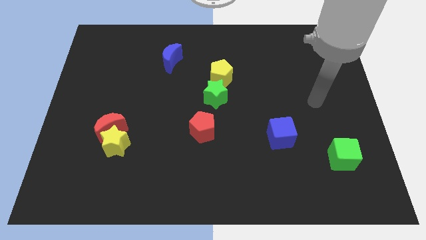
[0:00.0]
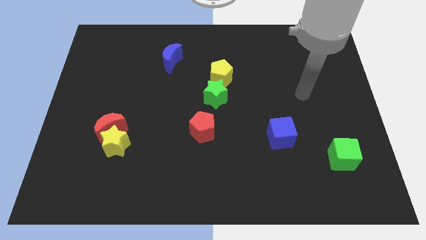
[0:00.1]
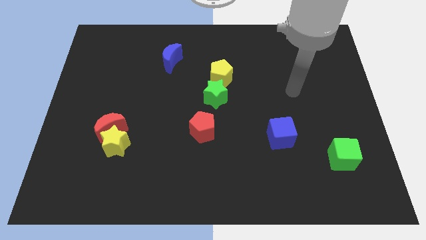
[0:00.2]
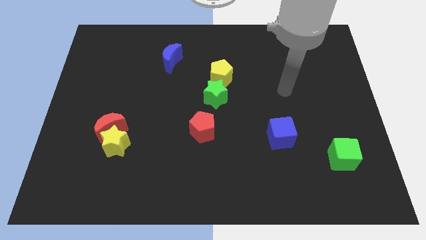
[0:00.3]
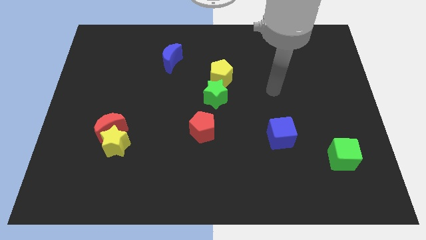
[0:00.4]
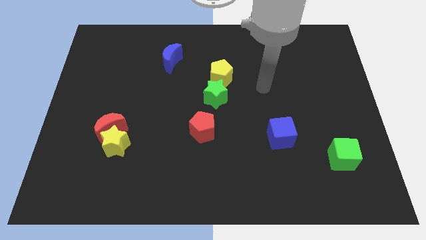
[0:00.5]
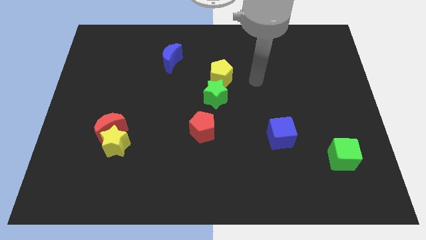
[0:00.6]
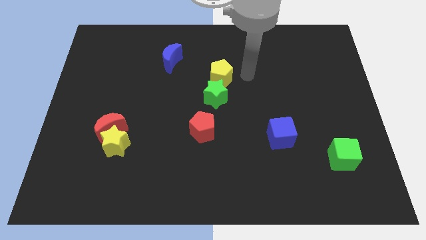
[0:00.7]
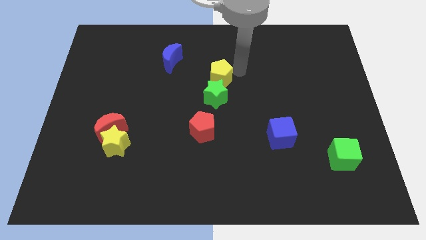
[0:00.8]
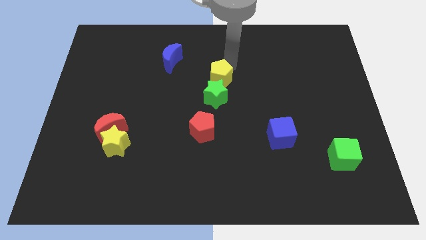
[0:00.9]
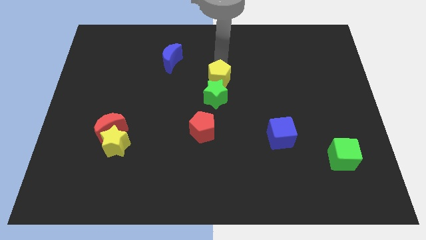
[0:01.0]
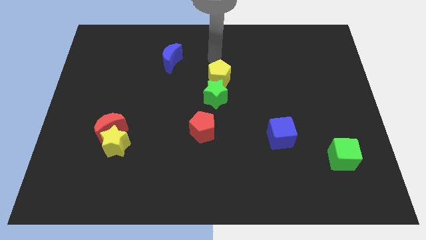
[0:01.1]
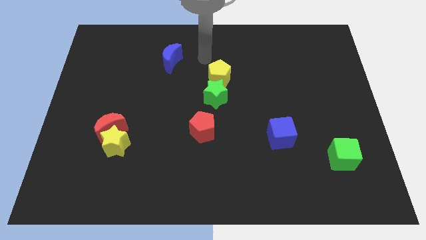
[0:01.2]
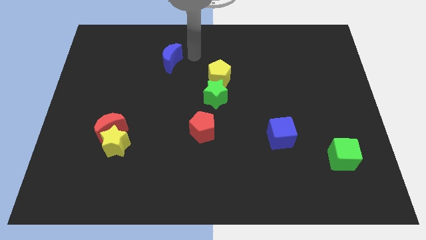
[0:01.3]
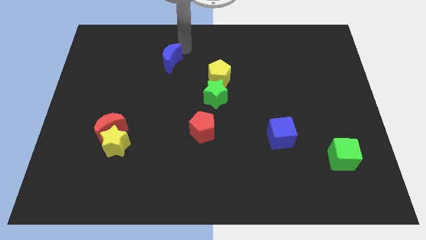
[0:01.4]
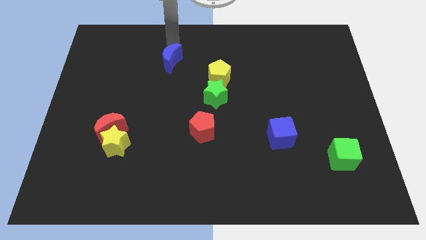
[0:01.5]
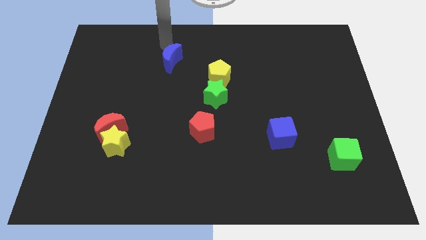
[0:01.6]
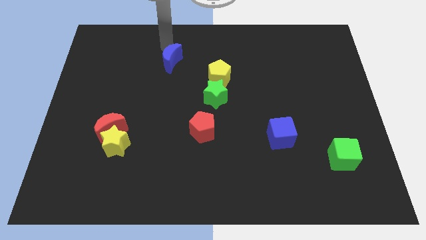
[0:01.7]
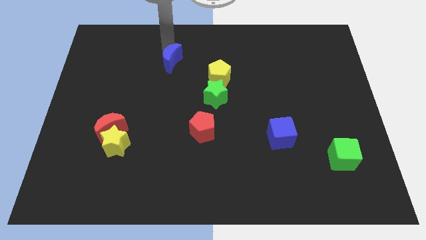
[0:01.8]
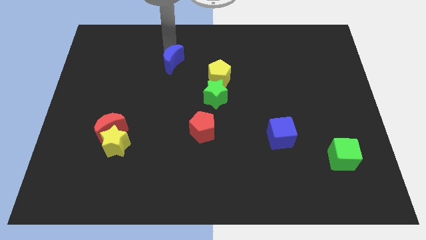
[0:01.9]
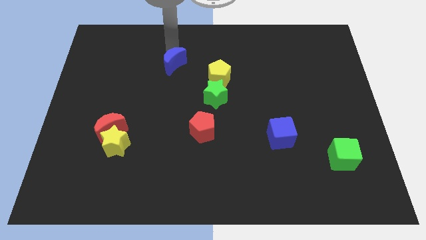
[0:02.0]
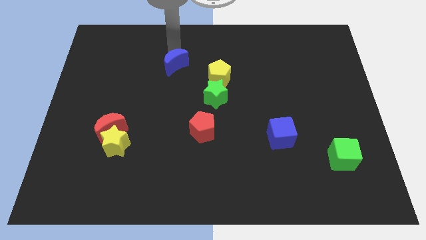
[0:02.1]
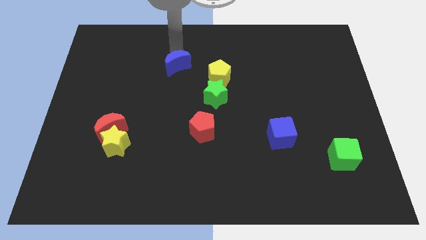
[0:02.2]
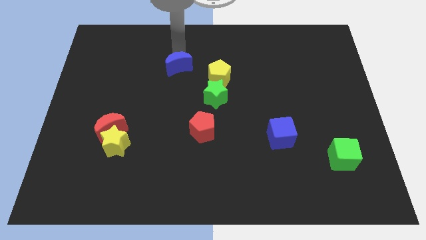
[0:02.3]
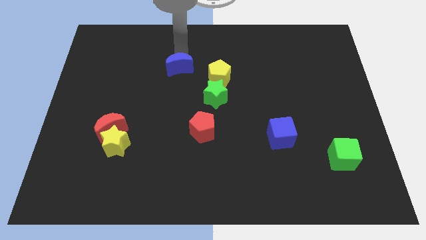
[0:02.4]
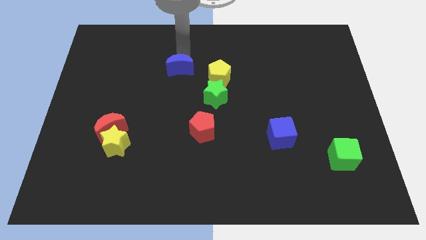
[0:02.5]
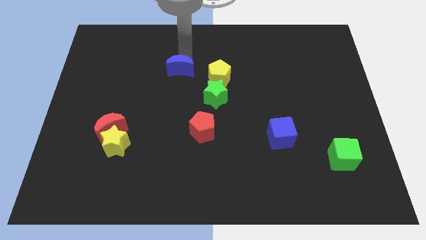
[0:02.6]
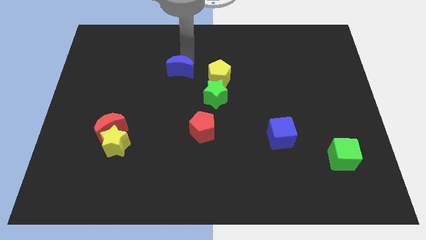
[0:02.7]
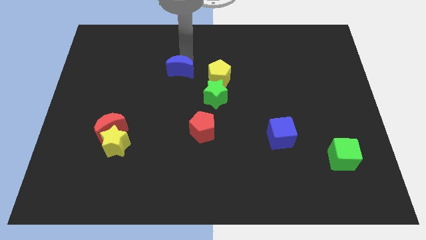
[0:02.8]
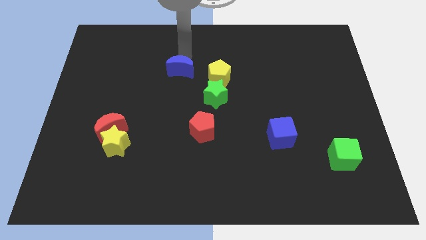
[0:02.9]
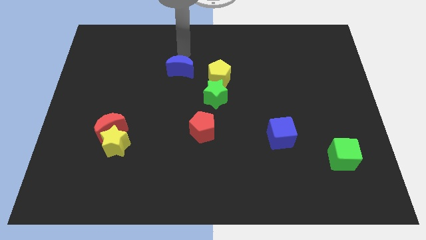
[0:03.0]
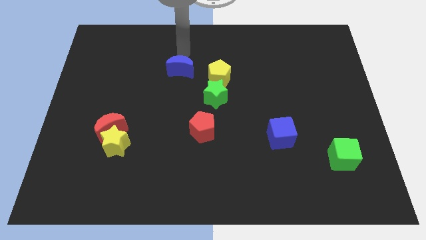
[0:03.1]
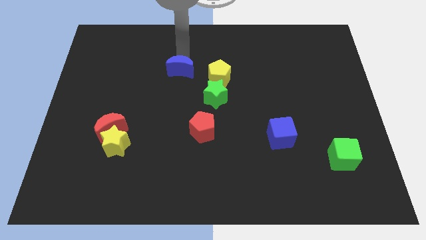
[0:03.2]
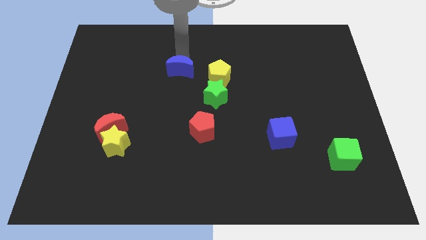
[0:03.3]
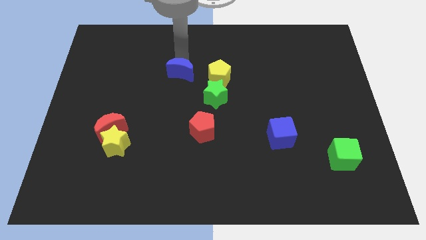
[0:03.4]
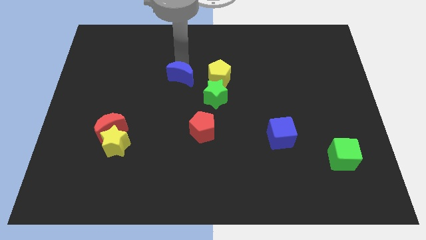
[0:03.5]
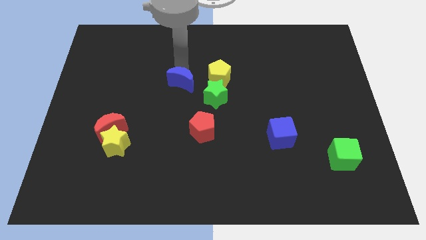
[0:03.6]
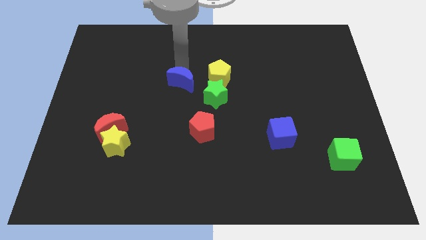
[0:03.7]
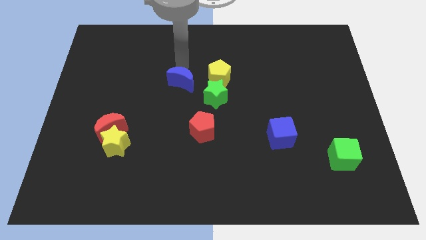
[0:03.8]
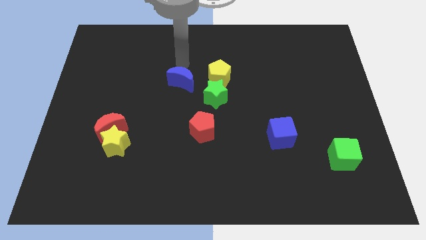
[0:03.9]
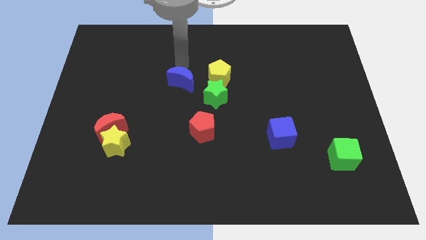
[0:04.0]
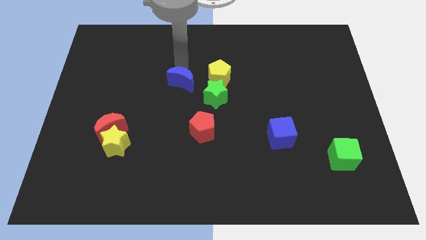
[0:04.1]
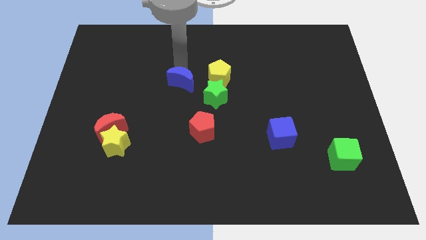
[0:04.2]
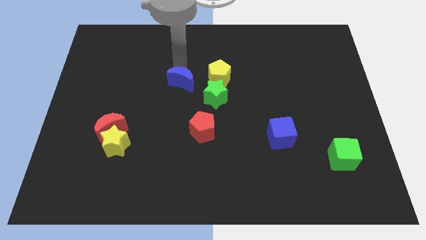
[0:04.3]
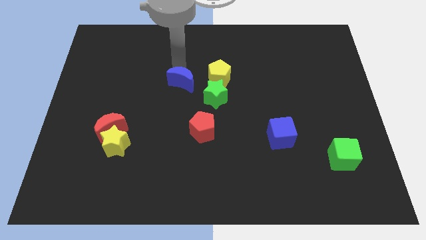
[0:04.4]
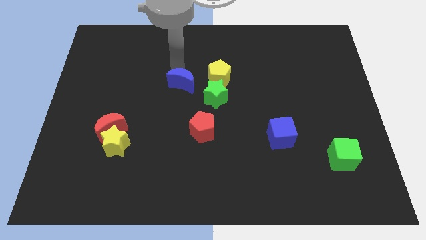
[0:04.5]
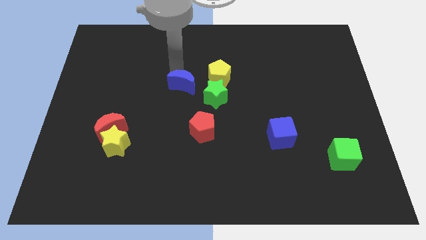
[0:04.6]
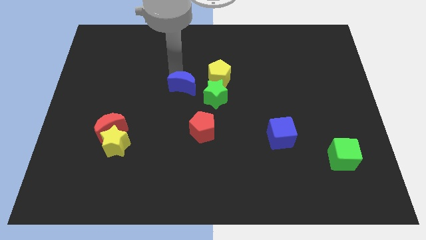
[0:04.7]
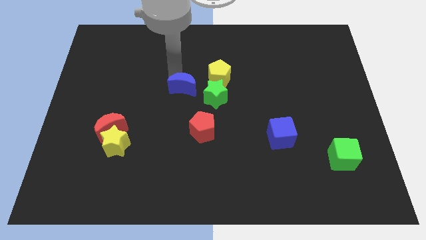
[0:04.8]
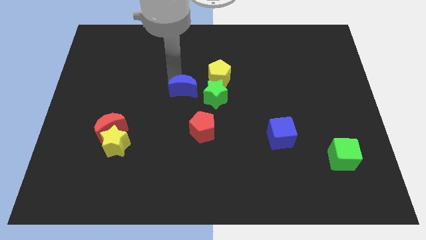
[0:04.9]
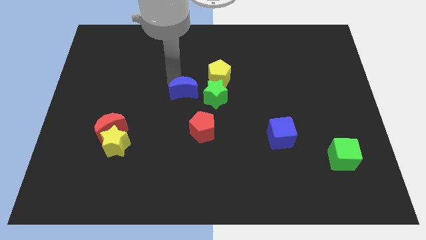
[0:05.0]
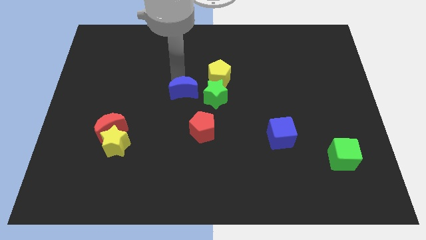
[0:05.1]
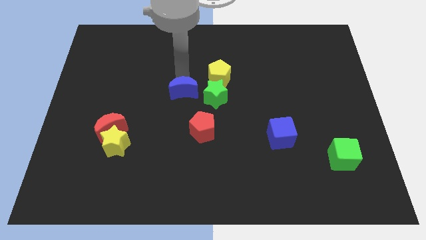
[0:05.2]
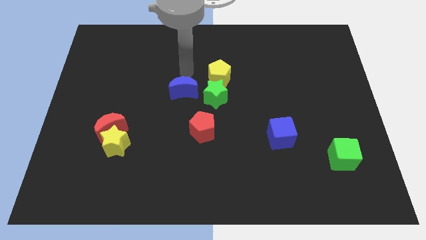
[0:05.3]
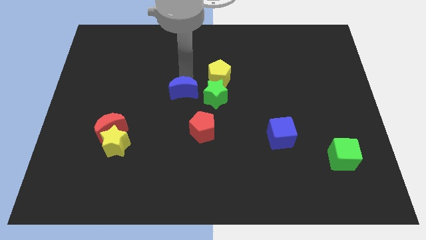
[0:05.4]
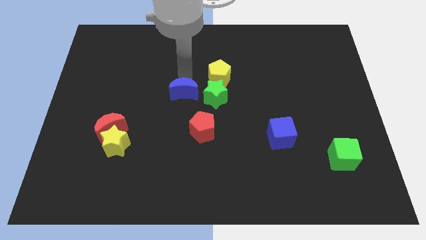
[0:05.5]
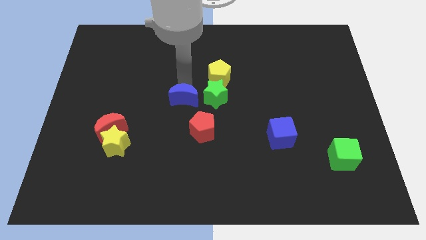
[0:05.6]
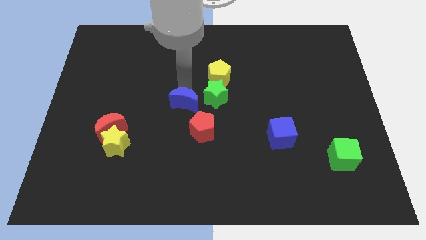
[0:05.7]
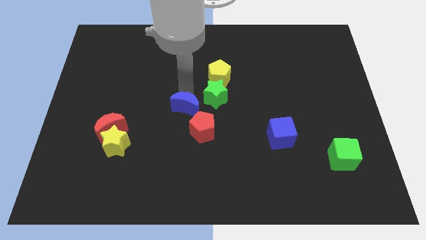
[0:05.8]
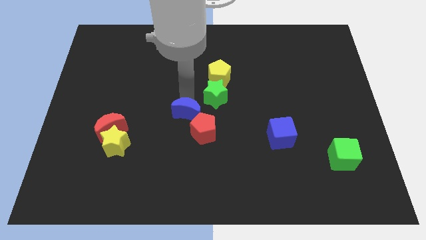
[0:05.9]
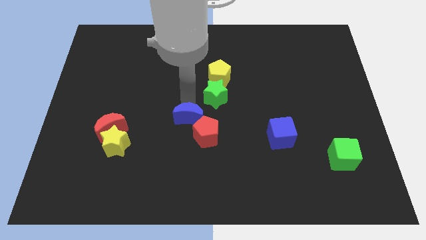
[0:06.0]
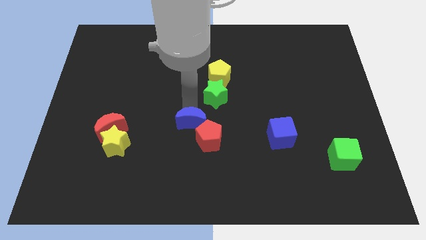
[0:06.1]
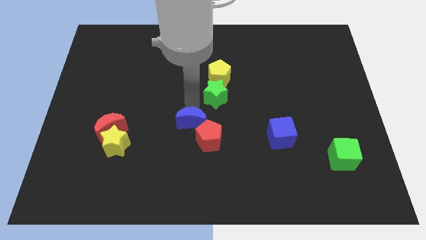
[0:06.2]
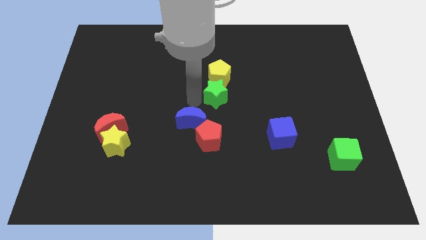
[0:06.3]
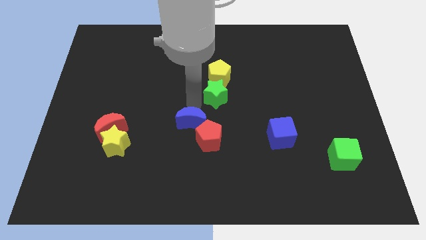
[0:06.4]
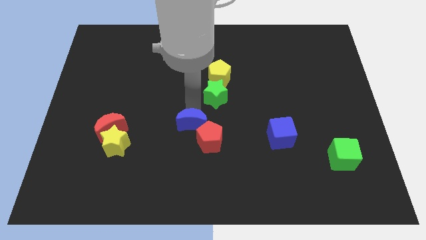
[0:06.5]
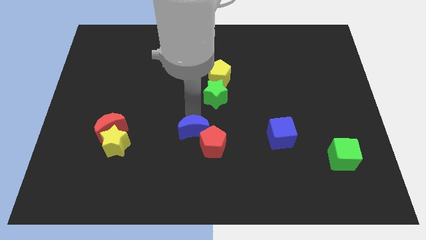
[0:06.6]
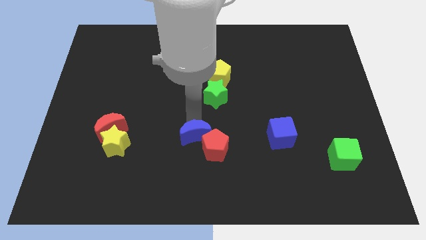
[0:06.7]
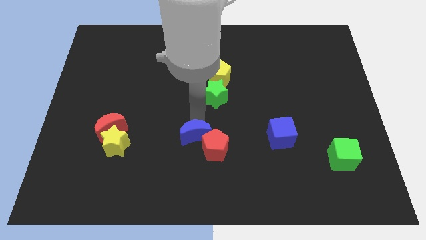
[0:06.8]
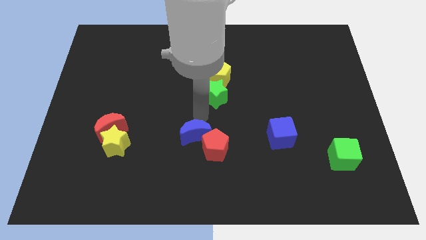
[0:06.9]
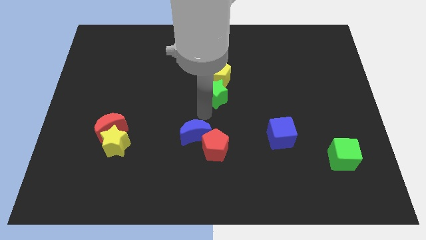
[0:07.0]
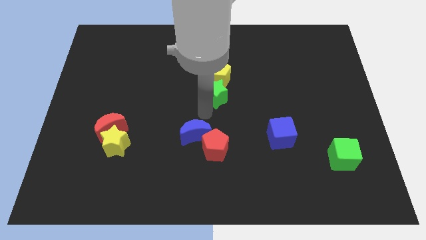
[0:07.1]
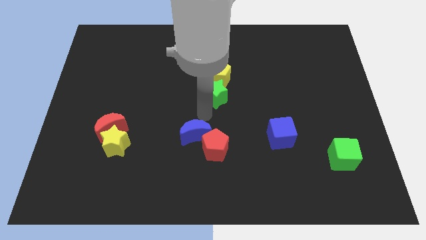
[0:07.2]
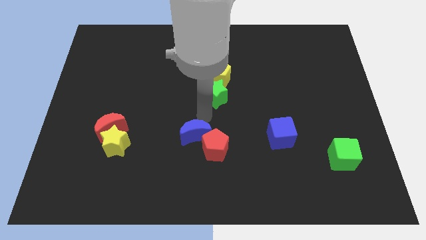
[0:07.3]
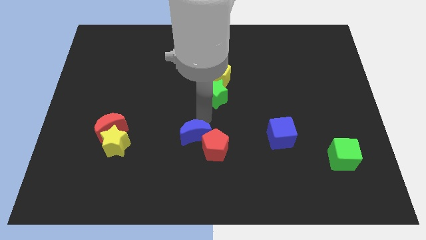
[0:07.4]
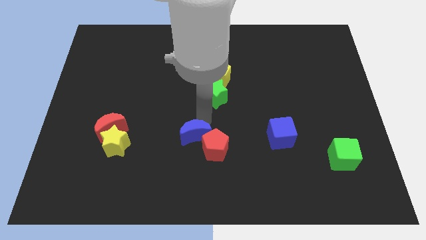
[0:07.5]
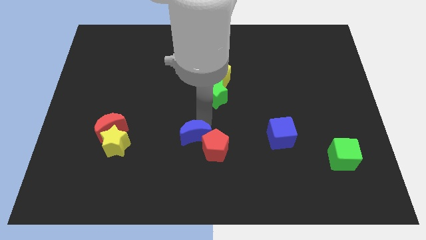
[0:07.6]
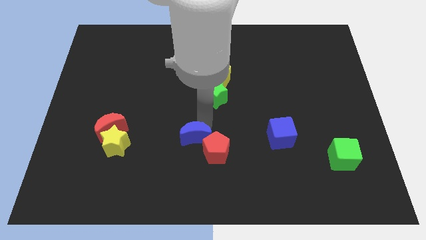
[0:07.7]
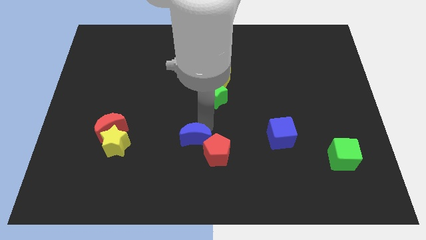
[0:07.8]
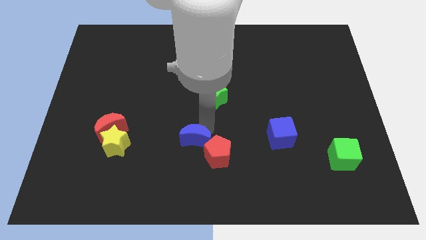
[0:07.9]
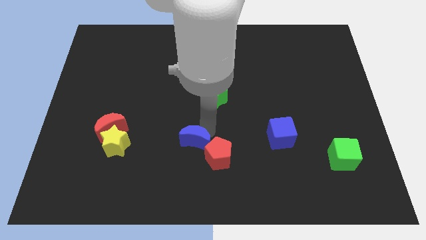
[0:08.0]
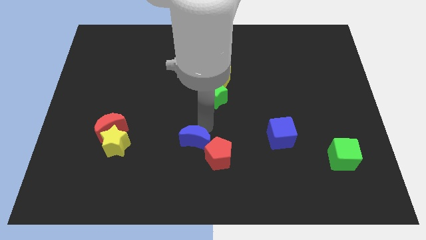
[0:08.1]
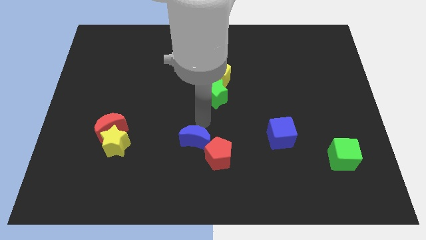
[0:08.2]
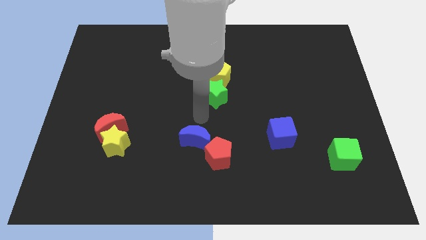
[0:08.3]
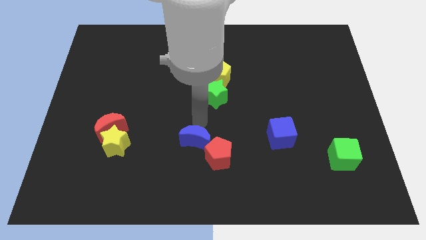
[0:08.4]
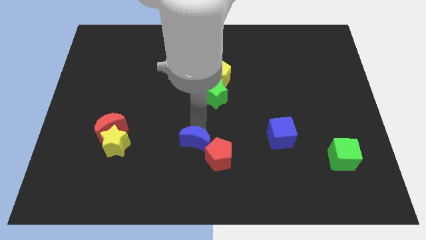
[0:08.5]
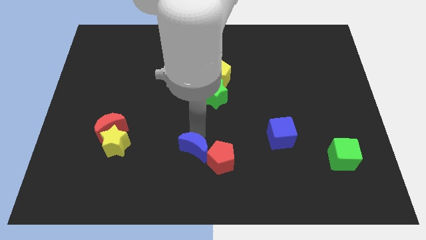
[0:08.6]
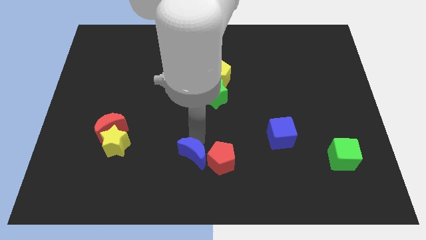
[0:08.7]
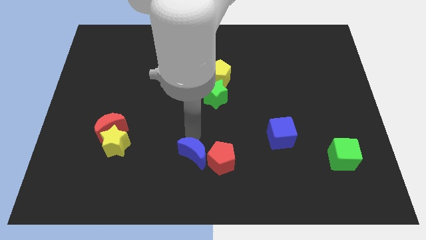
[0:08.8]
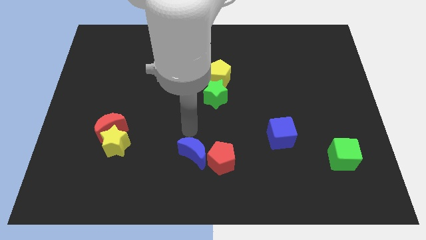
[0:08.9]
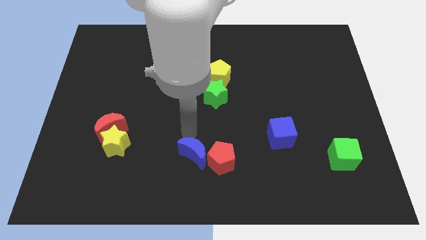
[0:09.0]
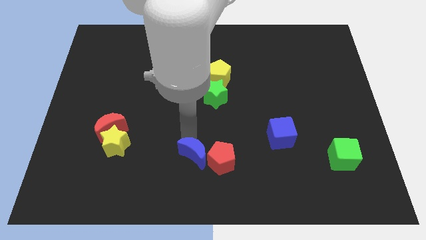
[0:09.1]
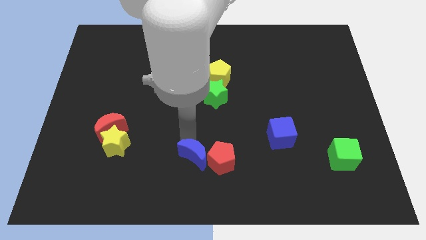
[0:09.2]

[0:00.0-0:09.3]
move the blue moon to the bottom
